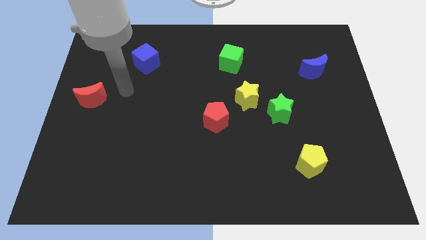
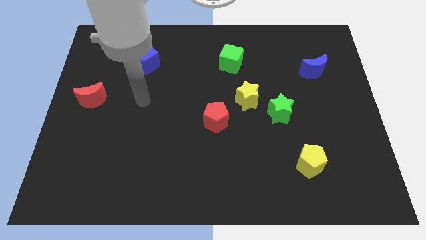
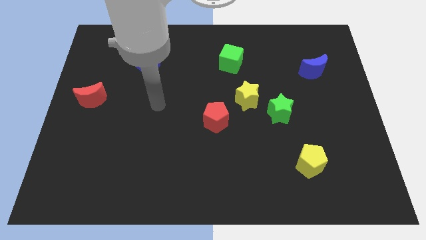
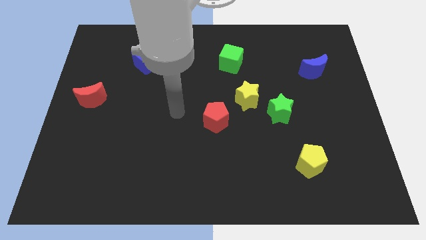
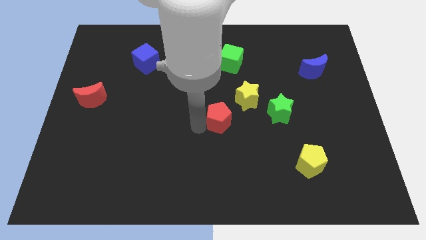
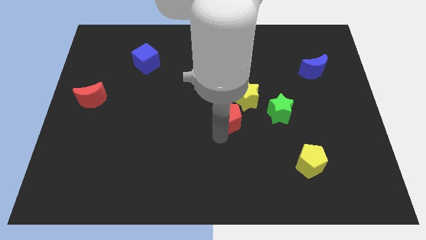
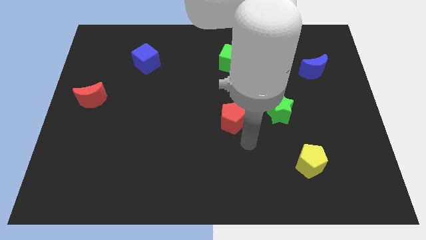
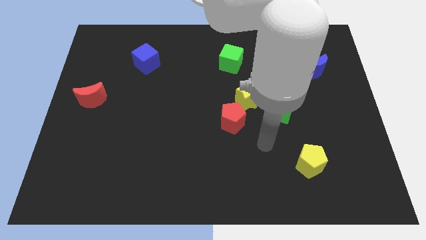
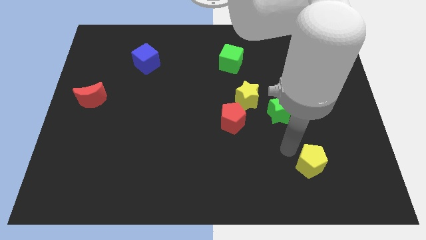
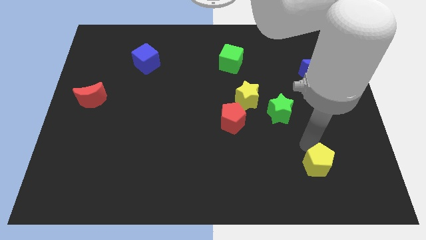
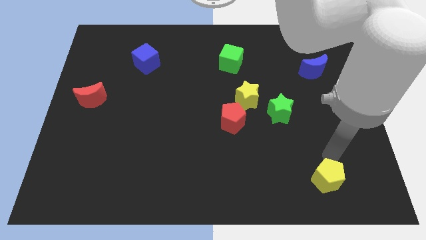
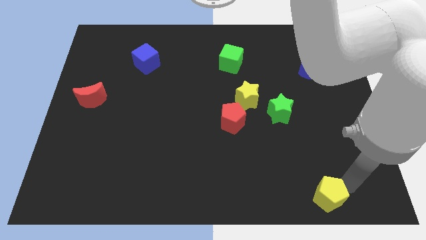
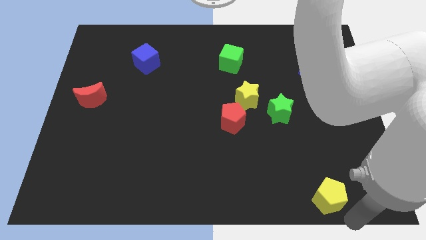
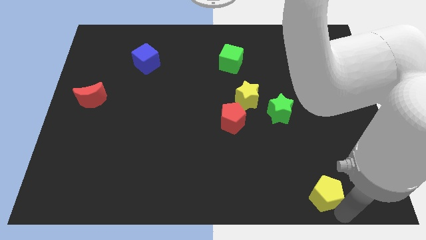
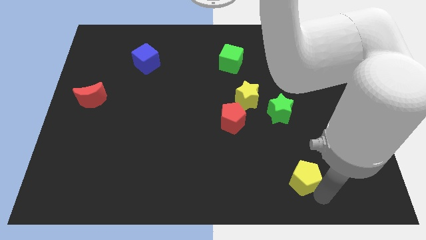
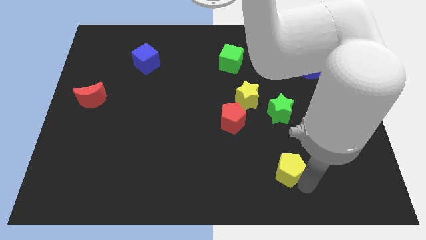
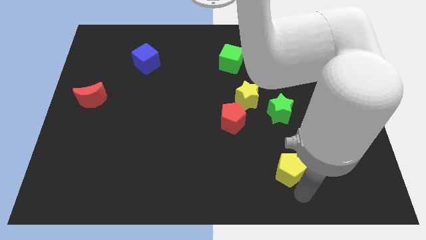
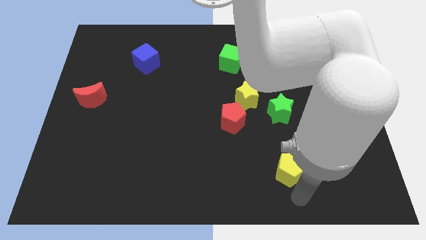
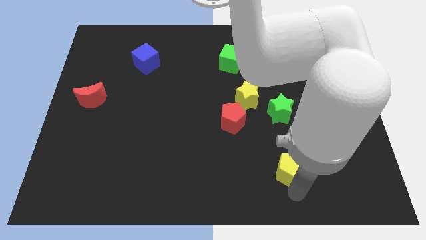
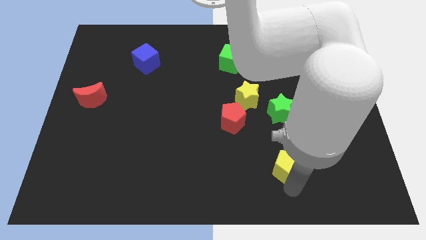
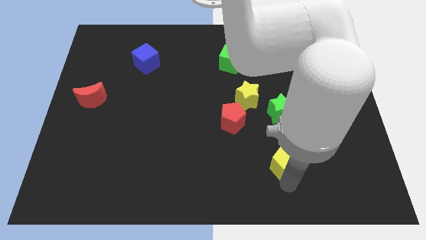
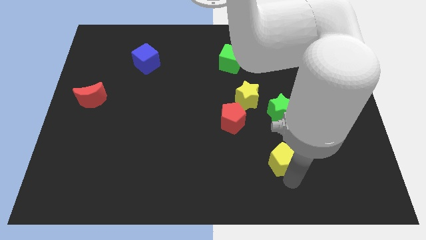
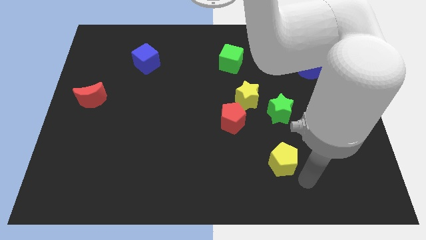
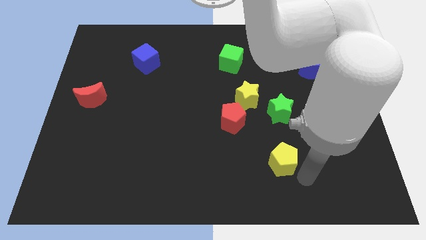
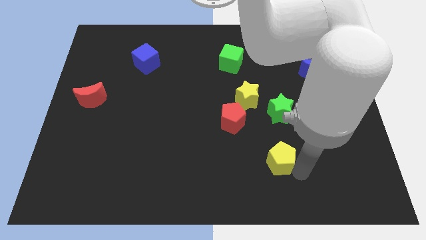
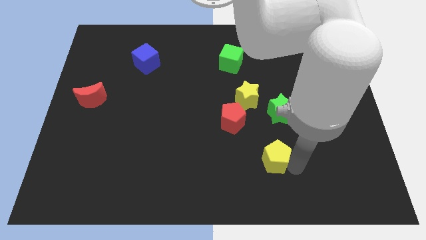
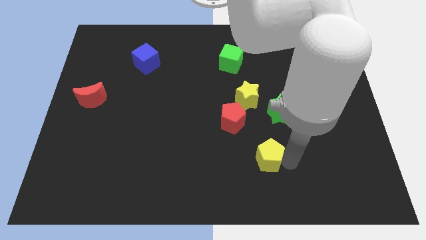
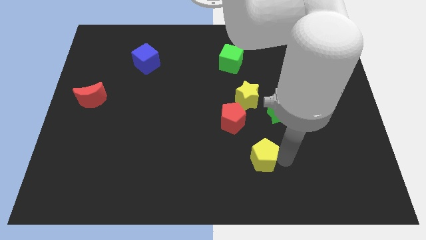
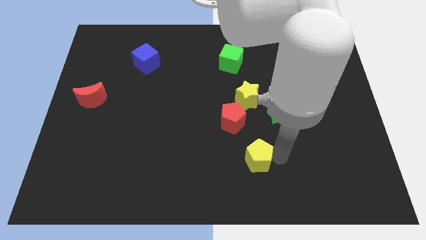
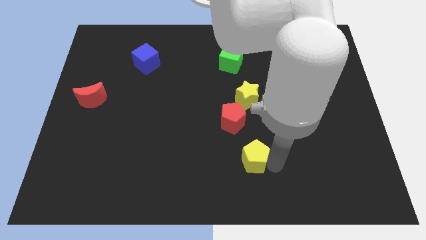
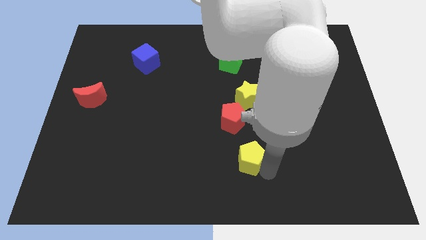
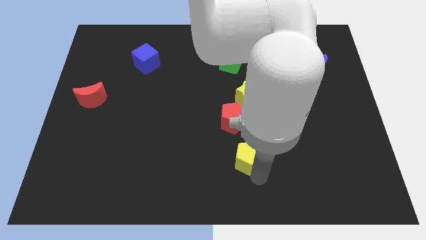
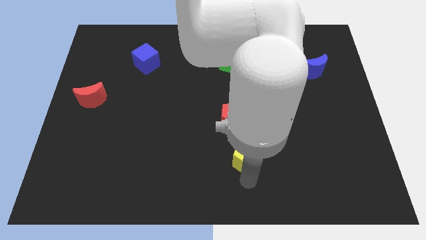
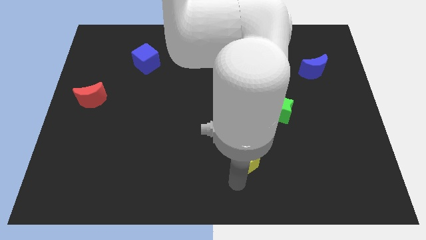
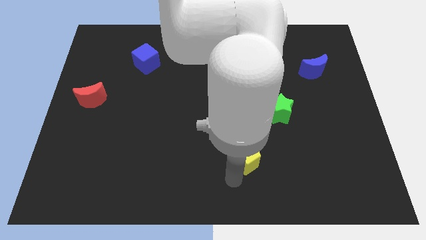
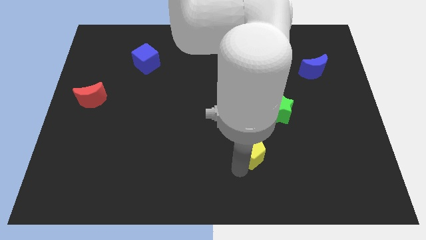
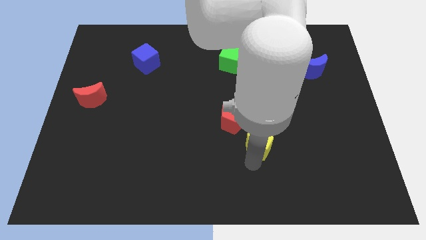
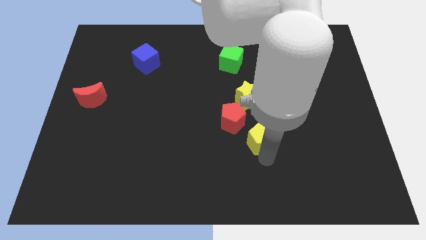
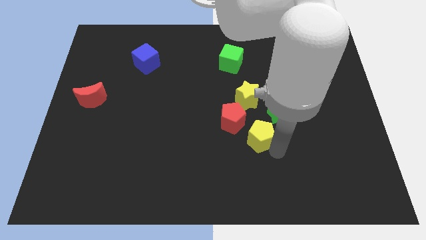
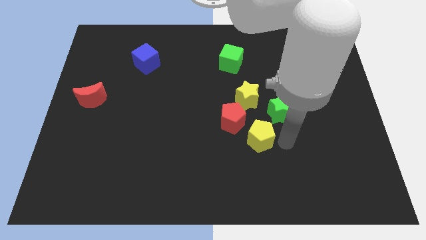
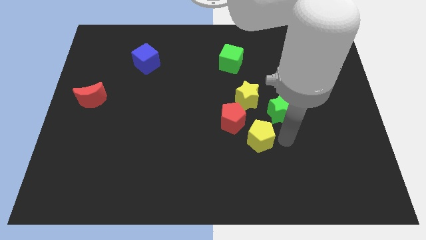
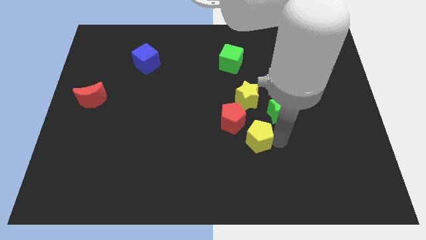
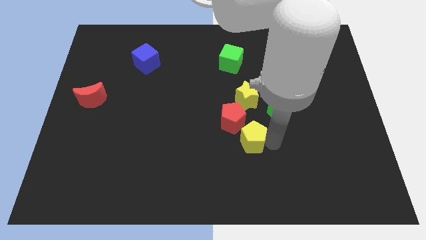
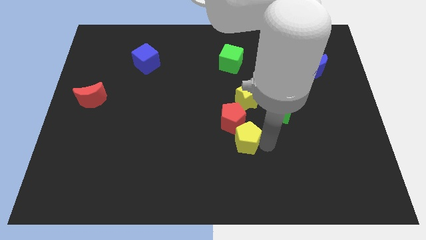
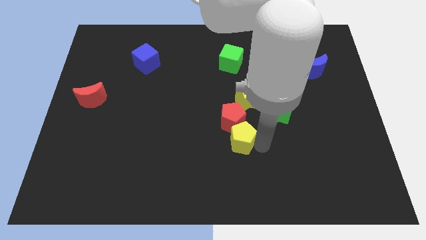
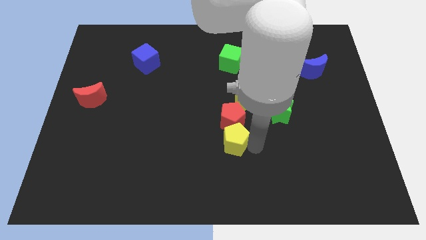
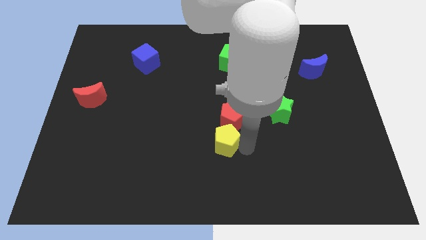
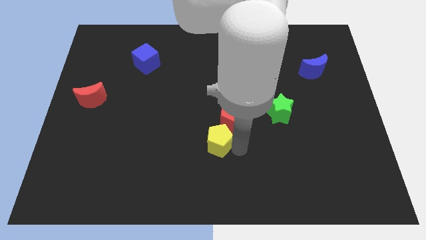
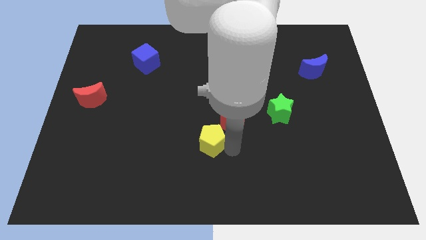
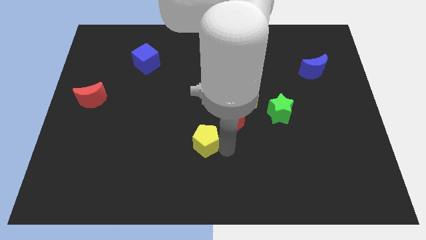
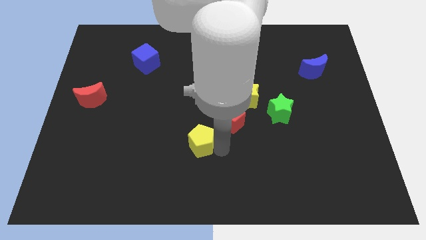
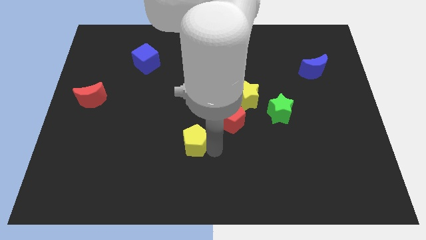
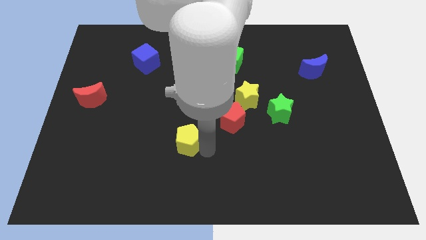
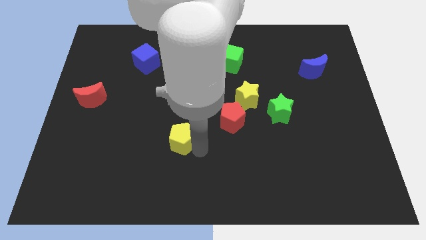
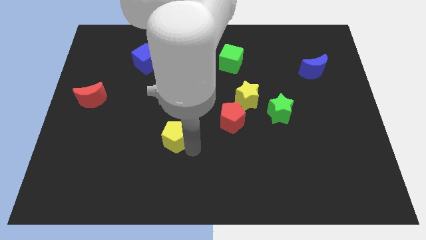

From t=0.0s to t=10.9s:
put the yellow pentagon to the left of the red pentagon

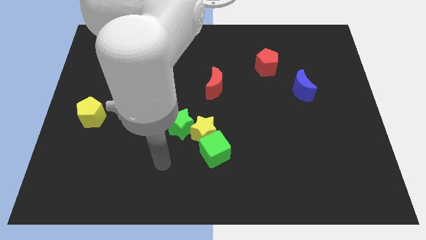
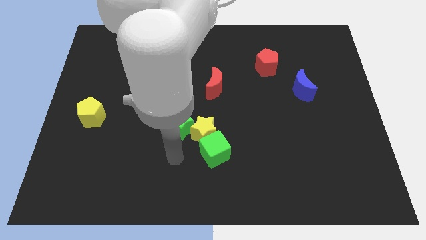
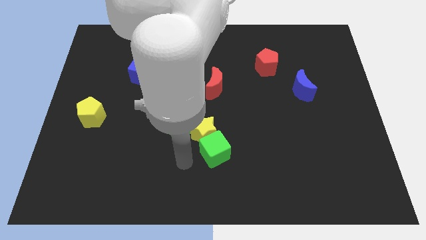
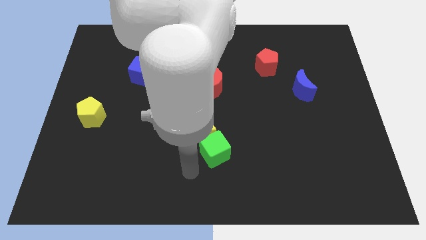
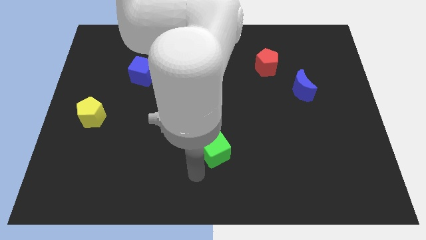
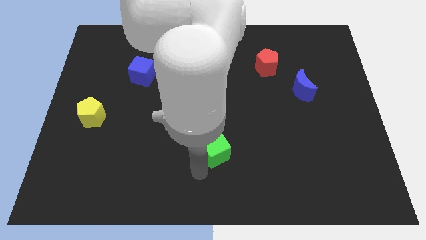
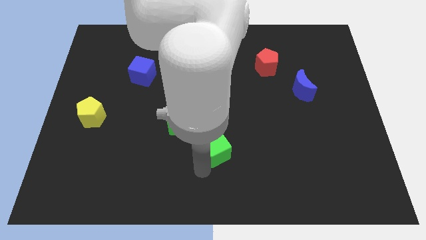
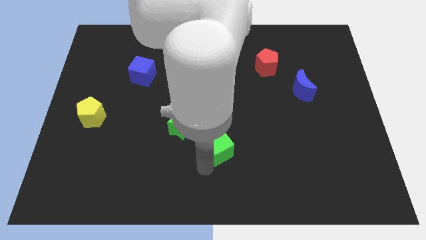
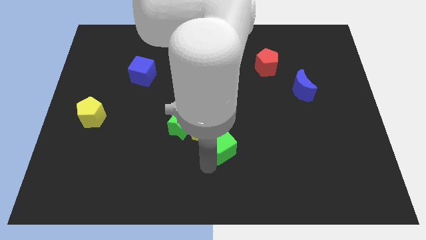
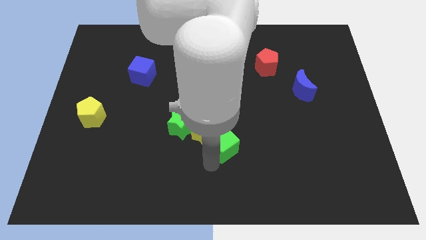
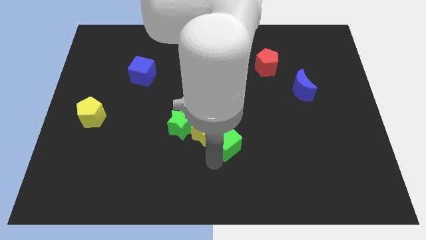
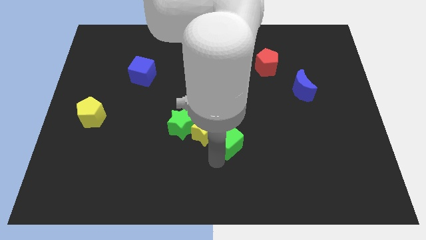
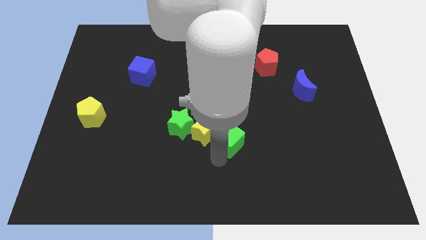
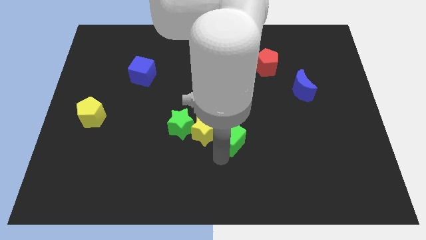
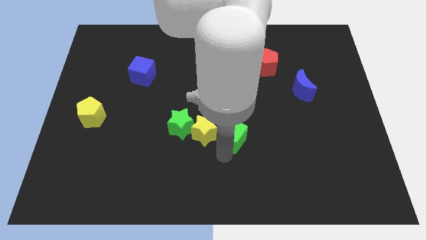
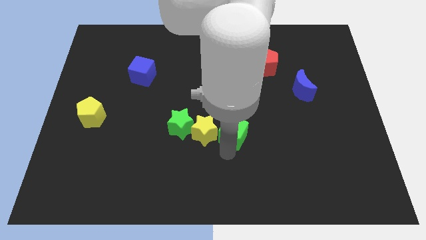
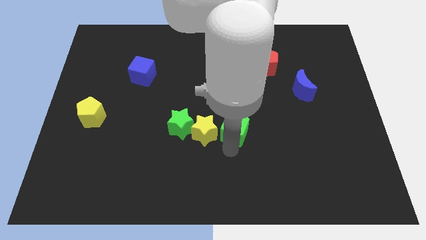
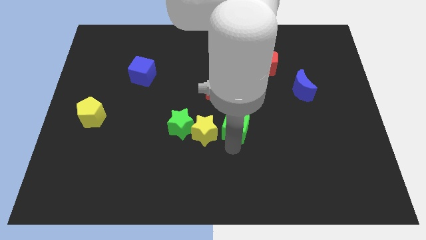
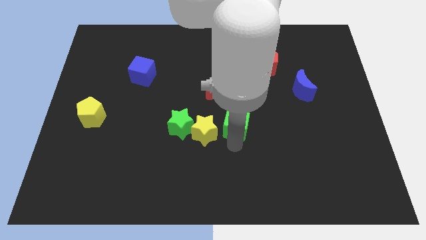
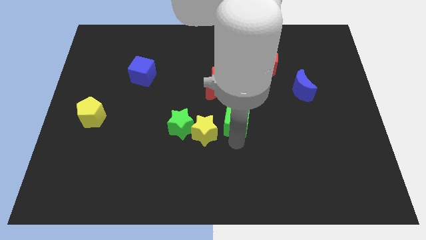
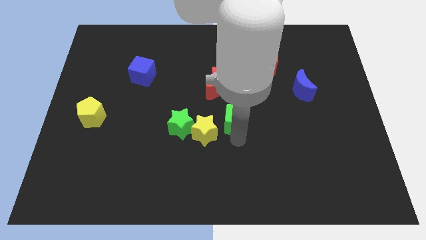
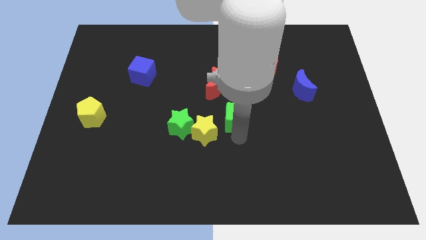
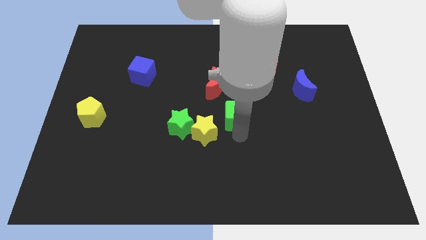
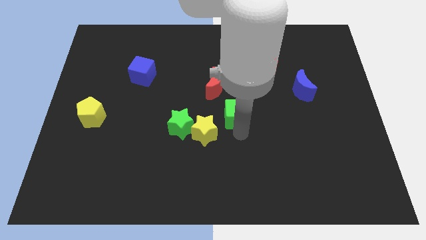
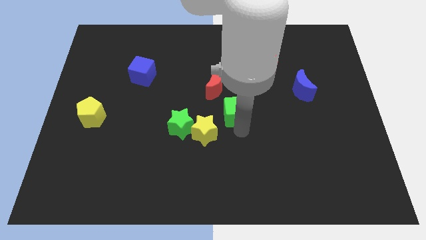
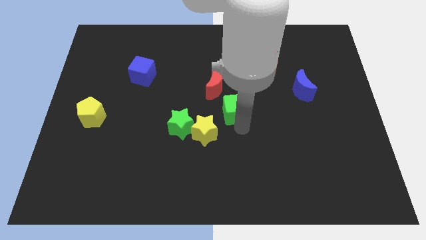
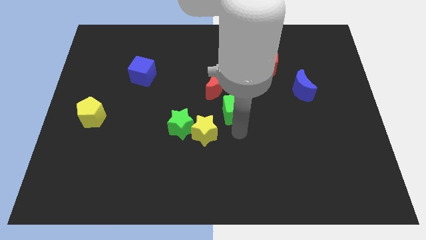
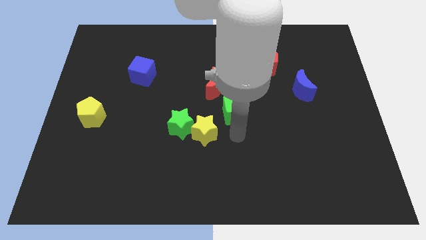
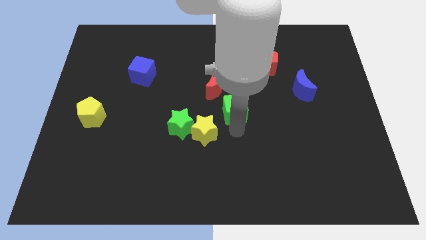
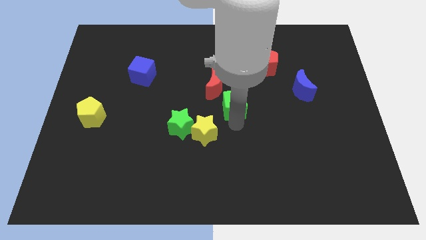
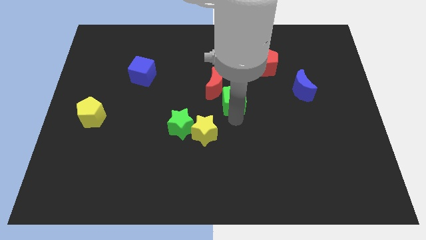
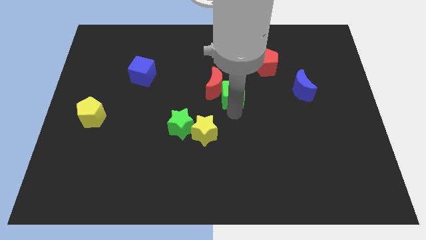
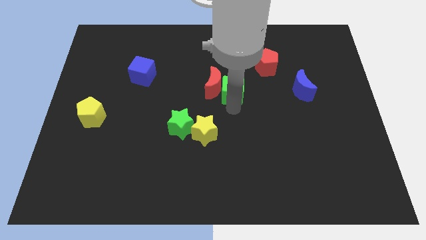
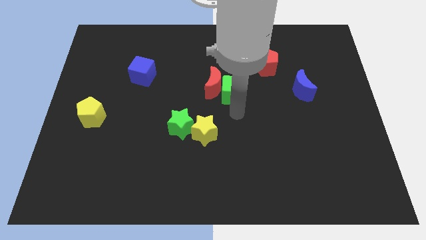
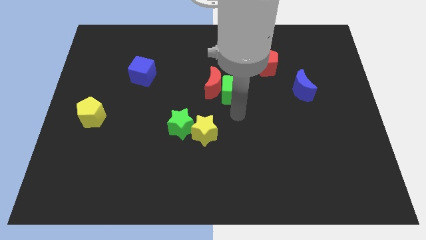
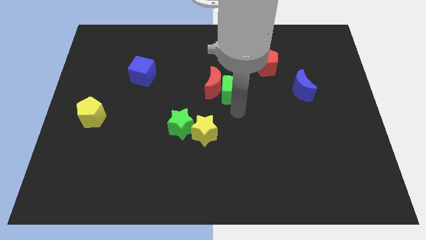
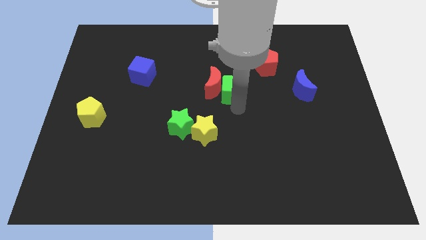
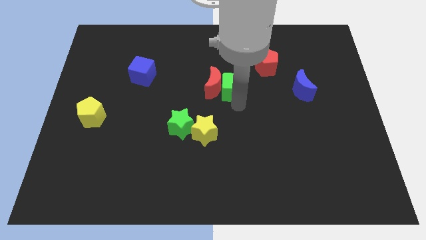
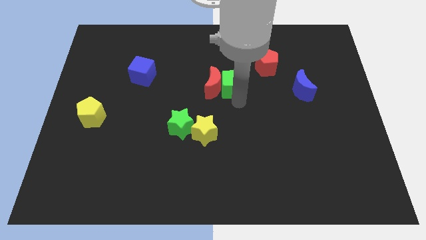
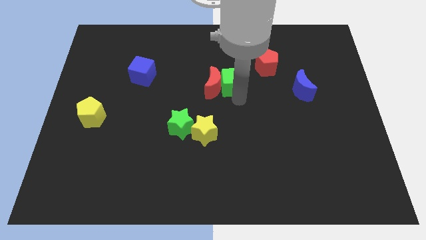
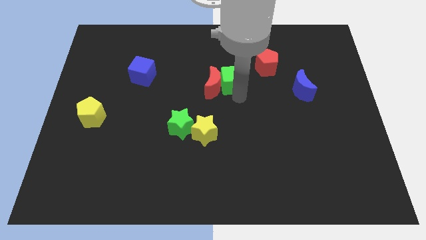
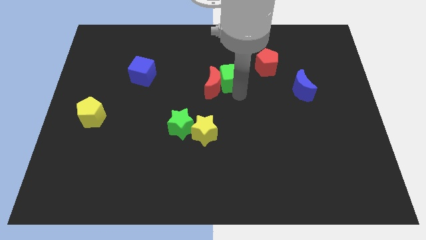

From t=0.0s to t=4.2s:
move the green cube just left of the red pentagon
